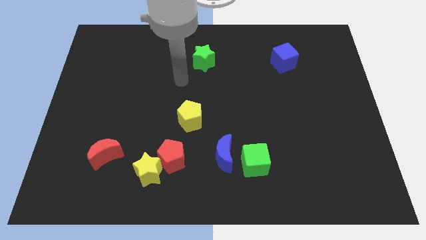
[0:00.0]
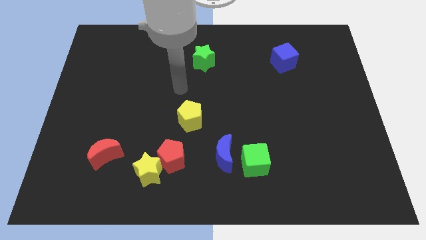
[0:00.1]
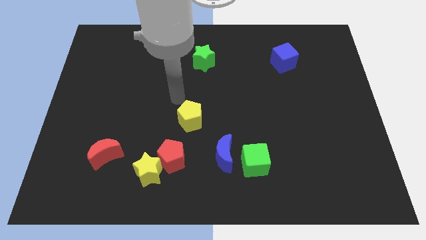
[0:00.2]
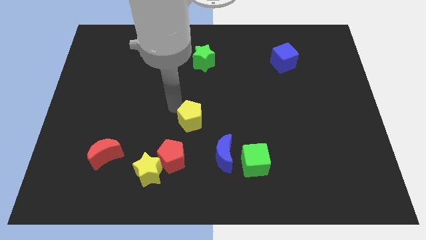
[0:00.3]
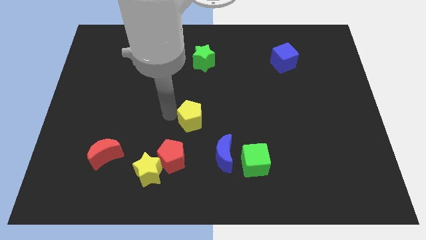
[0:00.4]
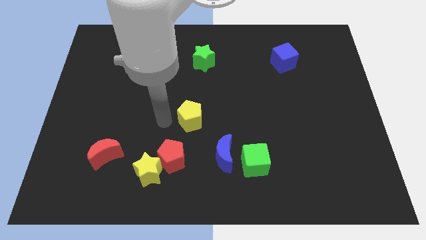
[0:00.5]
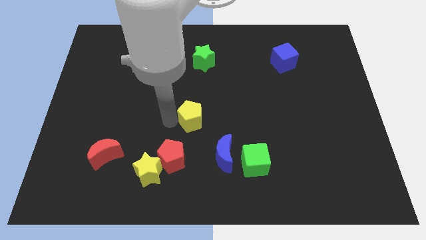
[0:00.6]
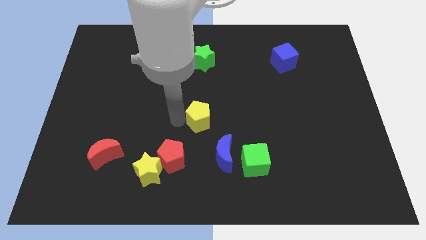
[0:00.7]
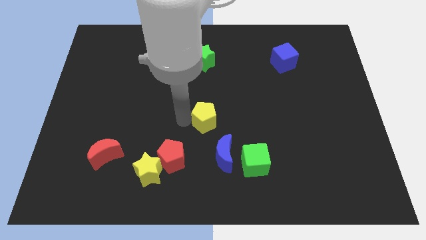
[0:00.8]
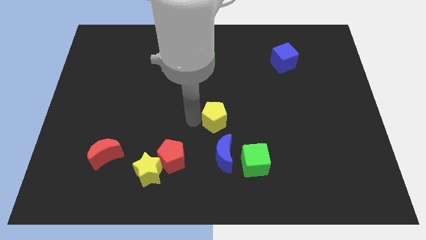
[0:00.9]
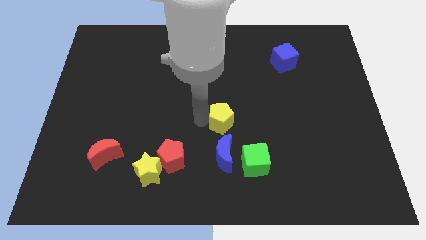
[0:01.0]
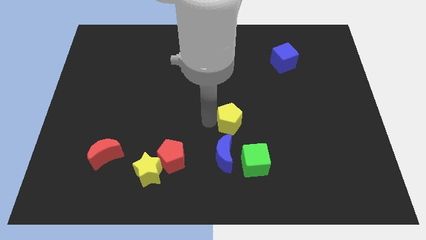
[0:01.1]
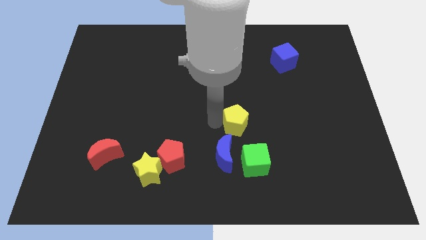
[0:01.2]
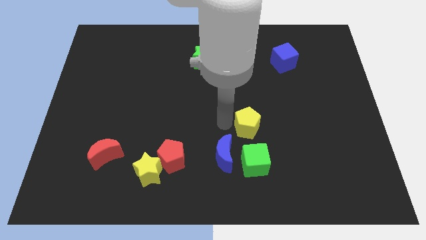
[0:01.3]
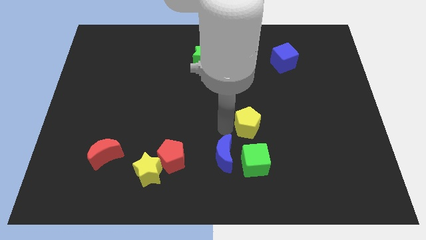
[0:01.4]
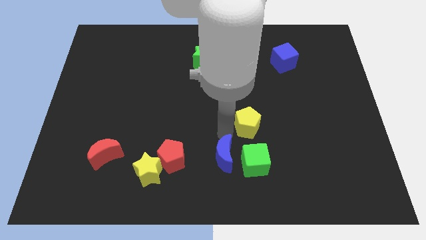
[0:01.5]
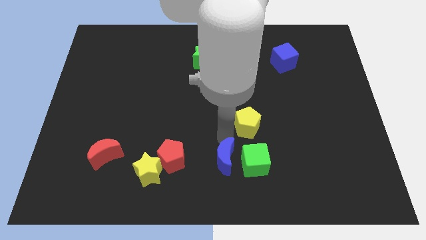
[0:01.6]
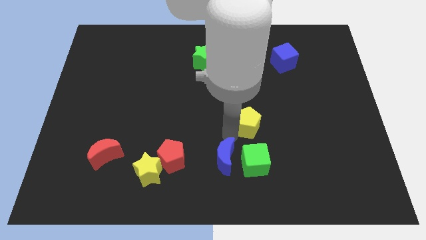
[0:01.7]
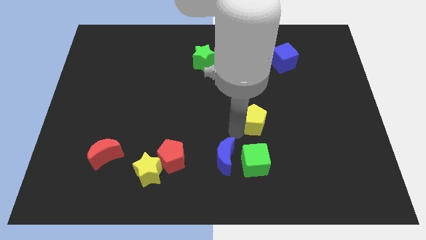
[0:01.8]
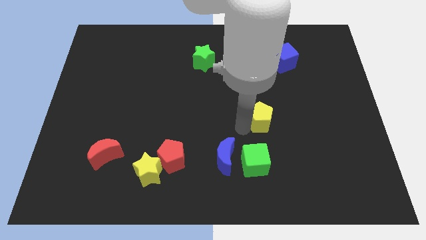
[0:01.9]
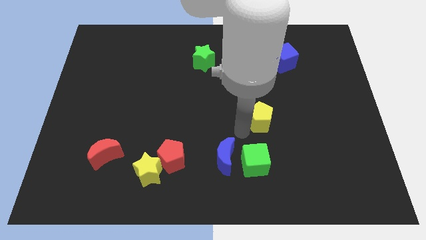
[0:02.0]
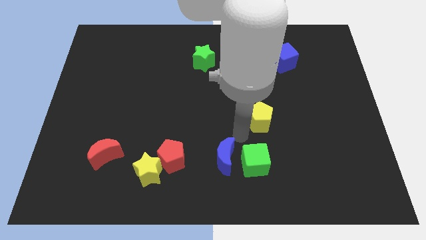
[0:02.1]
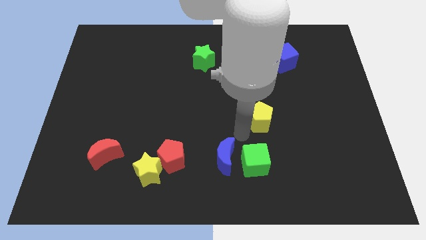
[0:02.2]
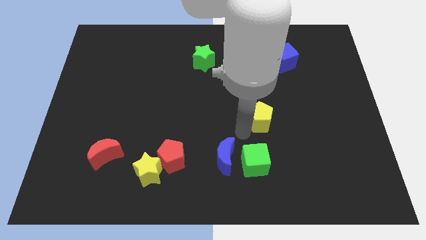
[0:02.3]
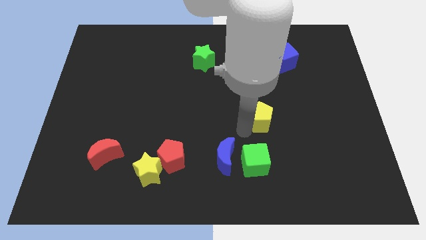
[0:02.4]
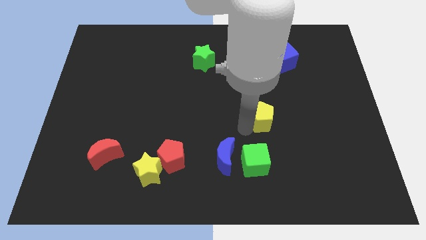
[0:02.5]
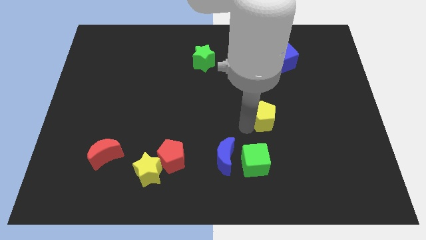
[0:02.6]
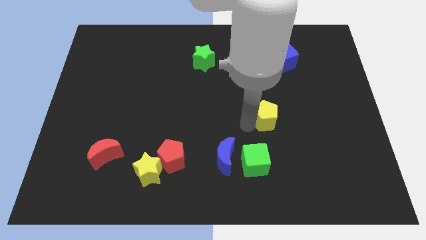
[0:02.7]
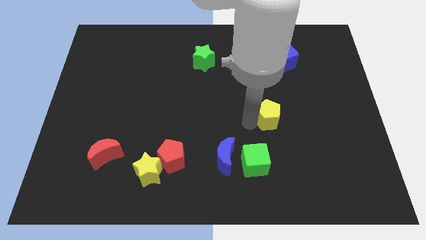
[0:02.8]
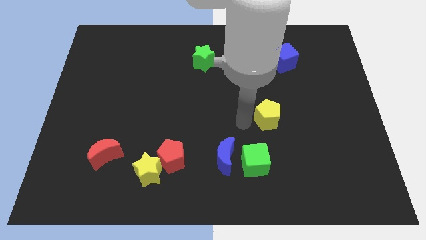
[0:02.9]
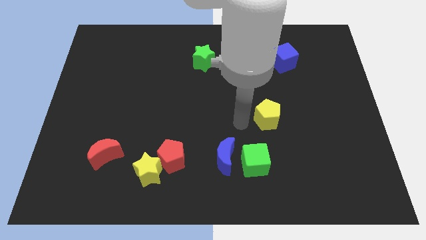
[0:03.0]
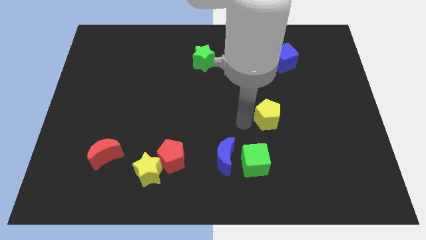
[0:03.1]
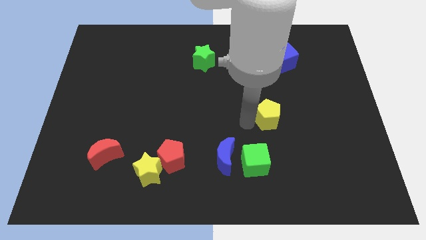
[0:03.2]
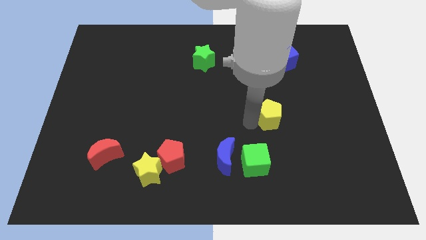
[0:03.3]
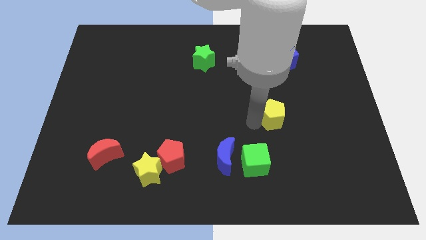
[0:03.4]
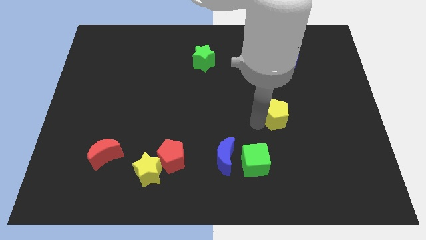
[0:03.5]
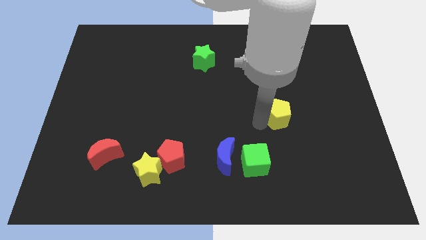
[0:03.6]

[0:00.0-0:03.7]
slide the yellow pentagon right

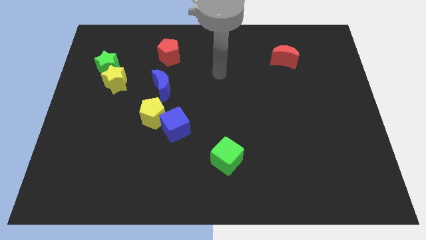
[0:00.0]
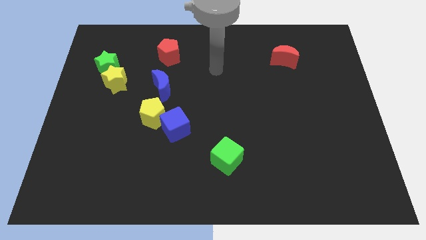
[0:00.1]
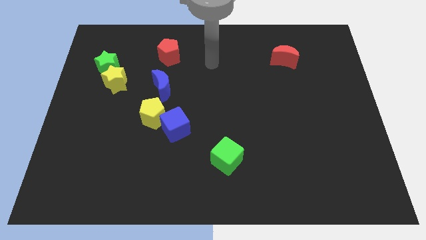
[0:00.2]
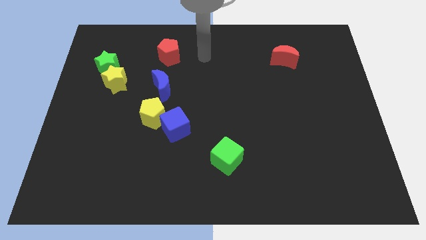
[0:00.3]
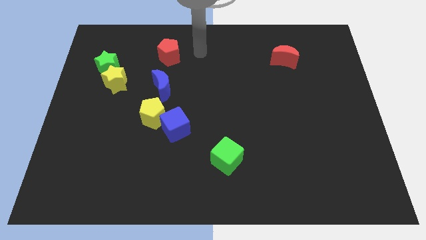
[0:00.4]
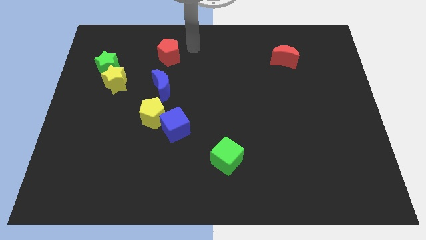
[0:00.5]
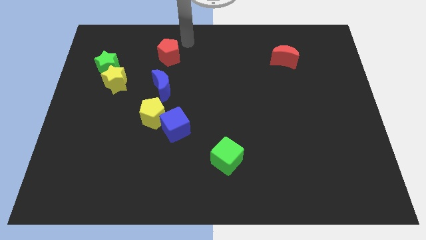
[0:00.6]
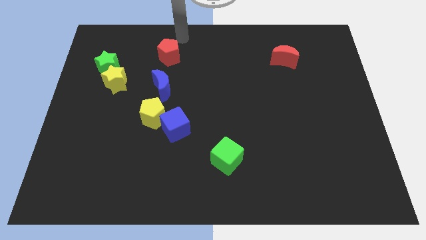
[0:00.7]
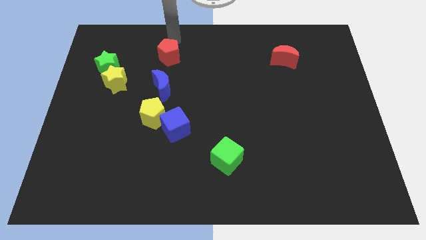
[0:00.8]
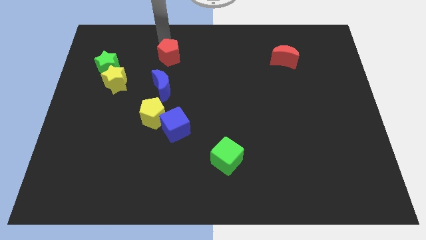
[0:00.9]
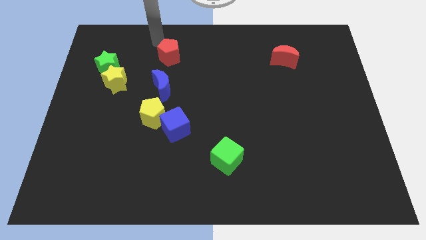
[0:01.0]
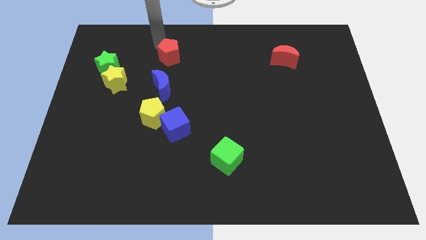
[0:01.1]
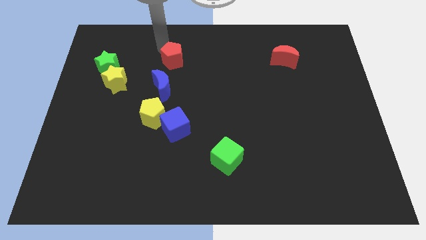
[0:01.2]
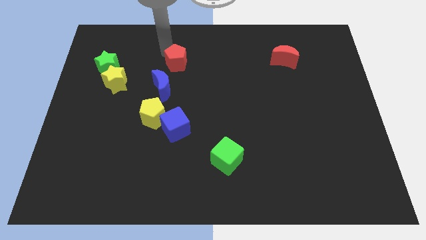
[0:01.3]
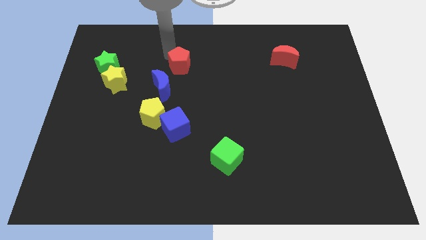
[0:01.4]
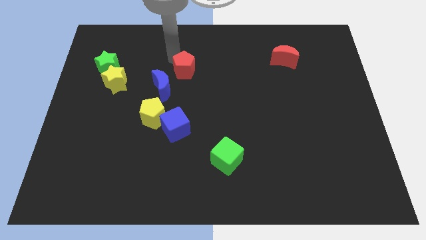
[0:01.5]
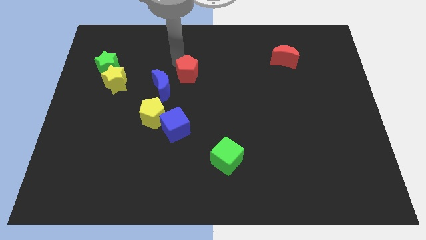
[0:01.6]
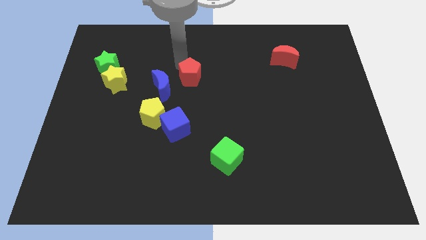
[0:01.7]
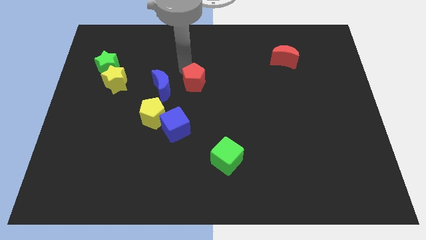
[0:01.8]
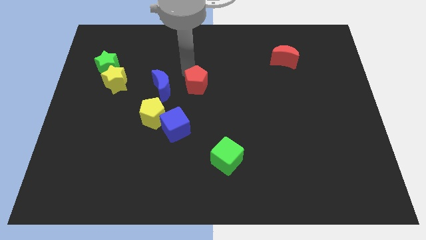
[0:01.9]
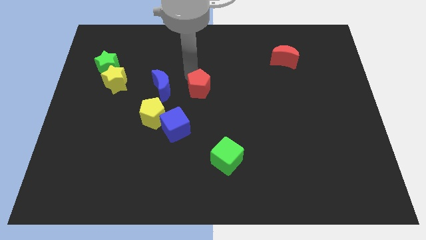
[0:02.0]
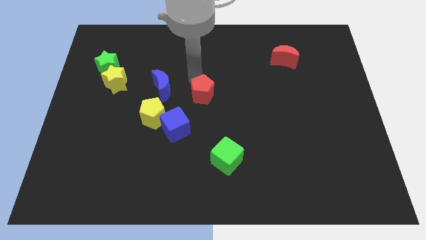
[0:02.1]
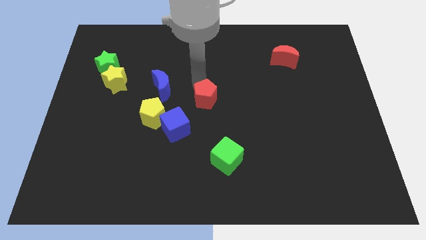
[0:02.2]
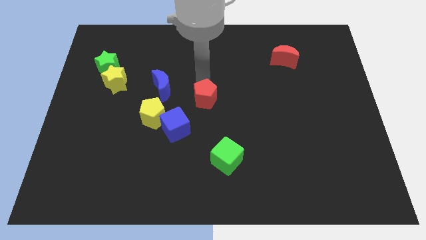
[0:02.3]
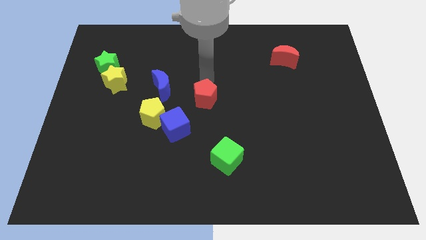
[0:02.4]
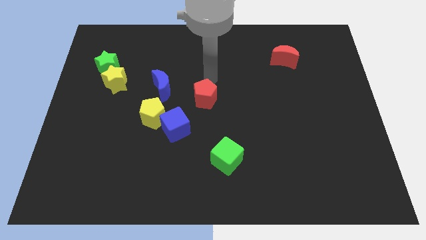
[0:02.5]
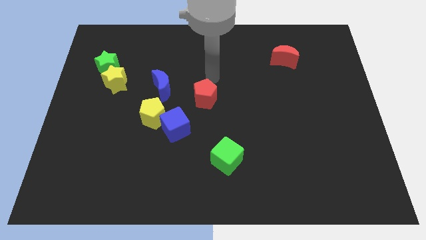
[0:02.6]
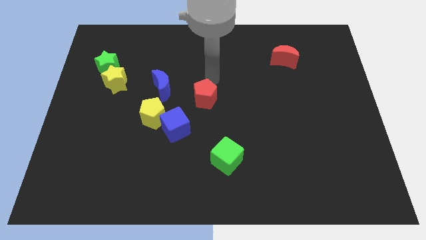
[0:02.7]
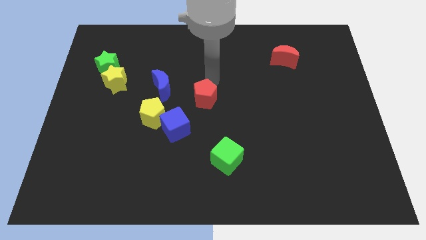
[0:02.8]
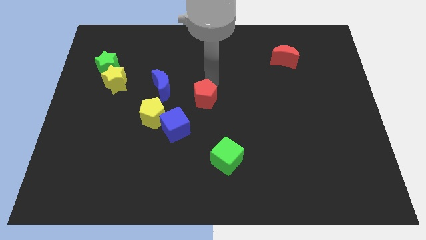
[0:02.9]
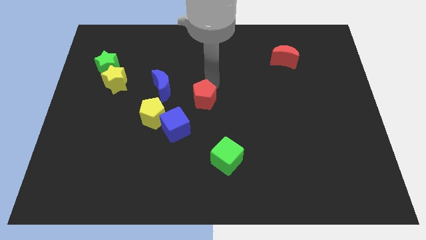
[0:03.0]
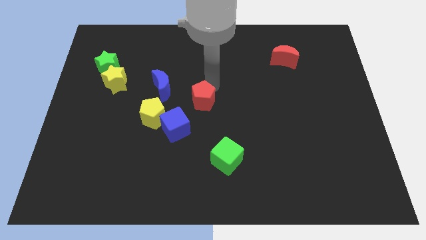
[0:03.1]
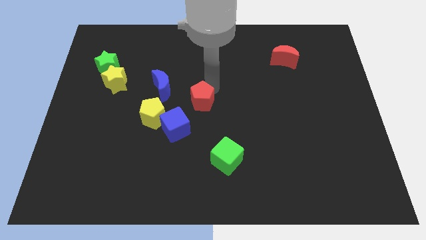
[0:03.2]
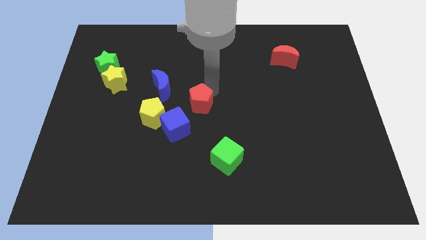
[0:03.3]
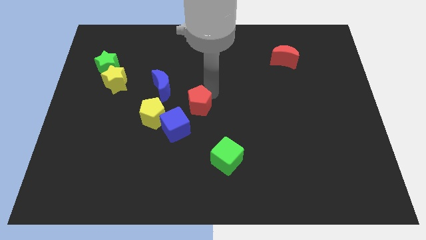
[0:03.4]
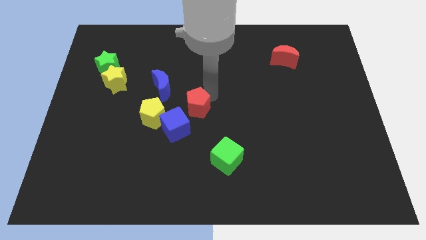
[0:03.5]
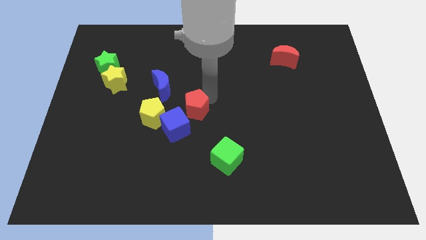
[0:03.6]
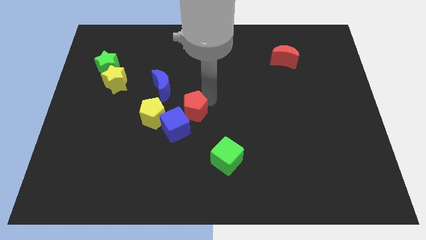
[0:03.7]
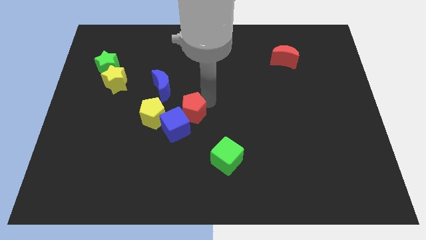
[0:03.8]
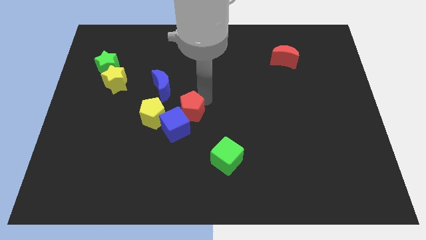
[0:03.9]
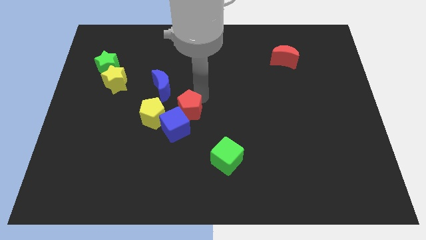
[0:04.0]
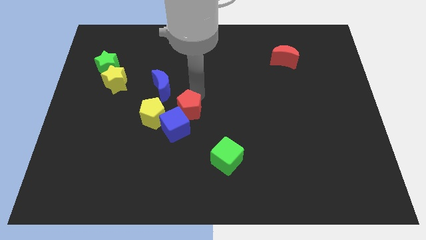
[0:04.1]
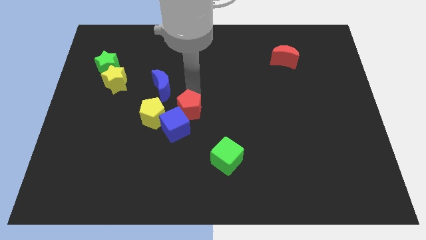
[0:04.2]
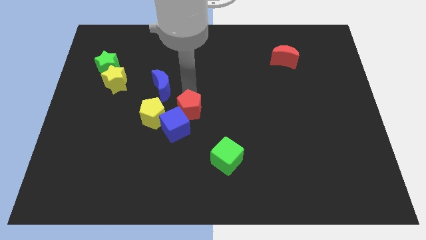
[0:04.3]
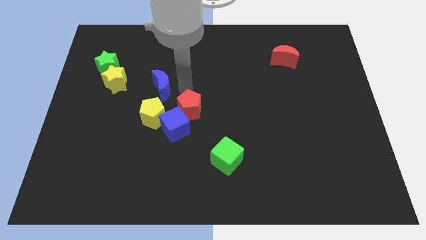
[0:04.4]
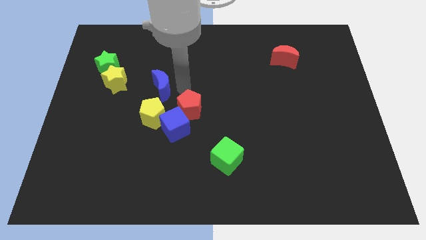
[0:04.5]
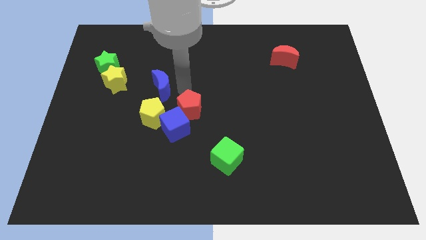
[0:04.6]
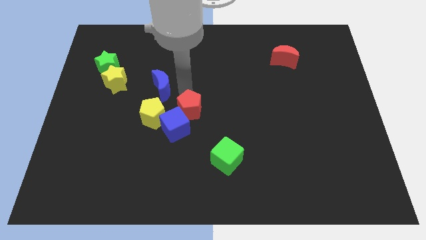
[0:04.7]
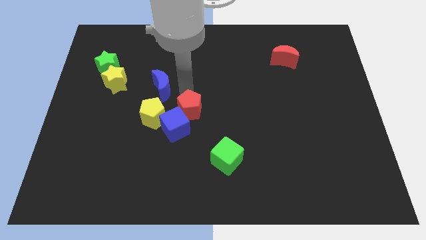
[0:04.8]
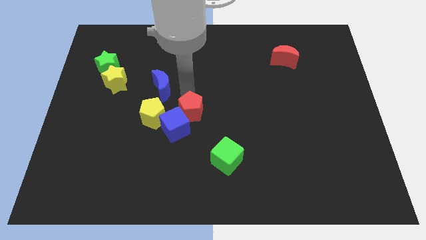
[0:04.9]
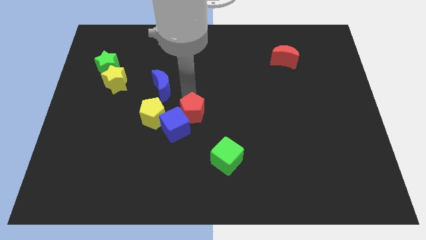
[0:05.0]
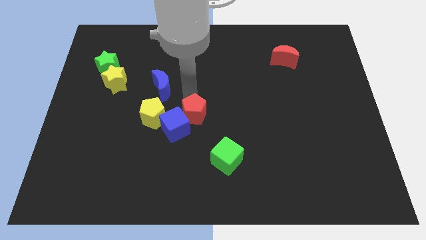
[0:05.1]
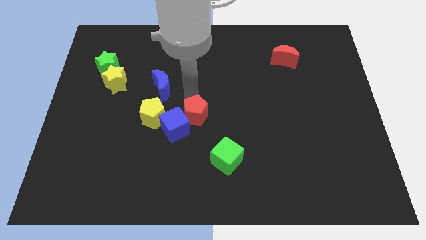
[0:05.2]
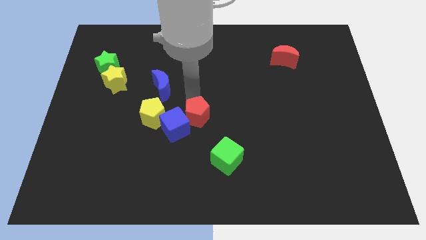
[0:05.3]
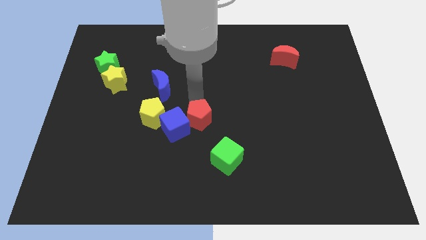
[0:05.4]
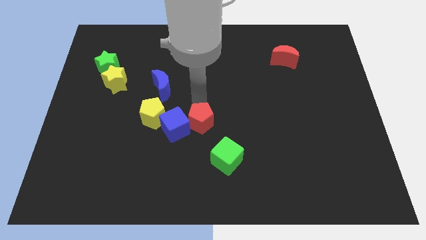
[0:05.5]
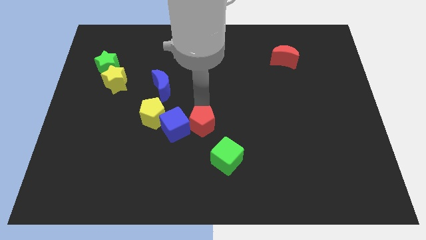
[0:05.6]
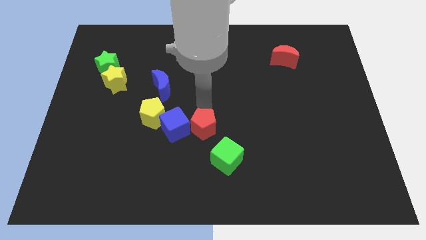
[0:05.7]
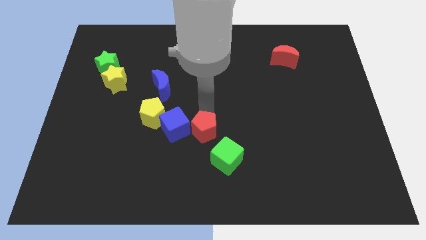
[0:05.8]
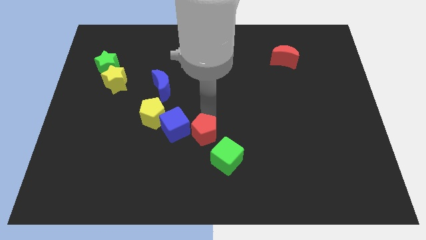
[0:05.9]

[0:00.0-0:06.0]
move the red pentagon down
